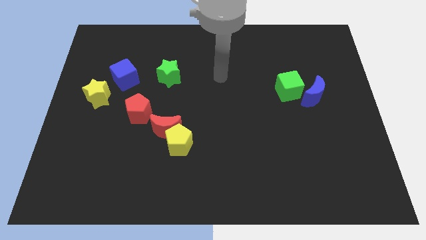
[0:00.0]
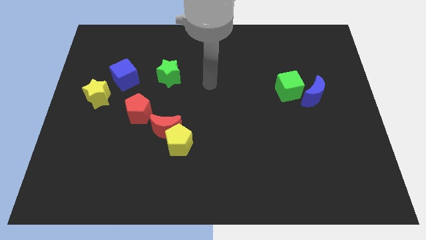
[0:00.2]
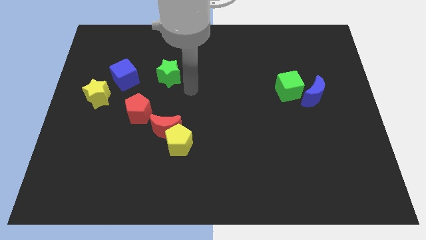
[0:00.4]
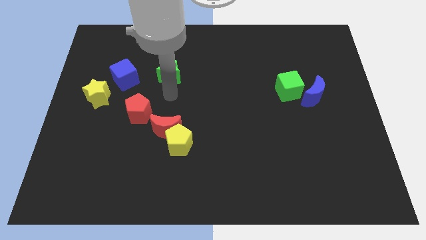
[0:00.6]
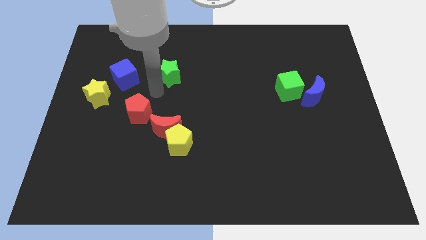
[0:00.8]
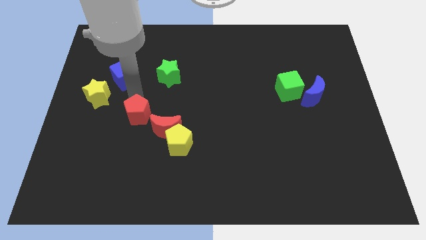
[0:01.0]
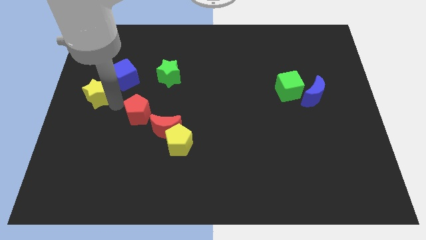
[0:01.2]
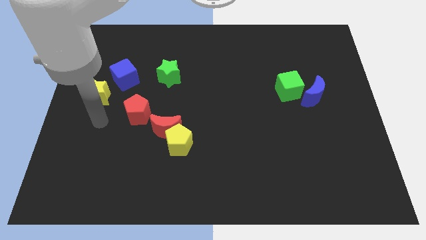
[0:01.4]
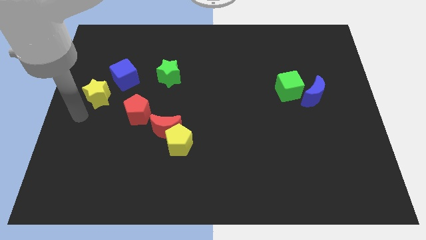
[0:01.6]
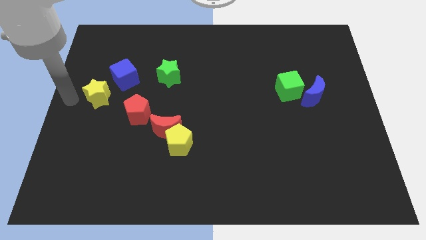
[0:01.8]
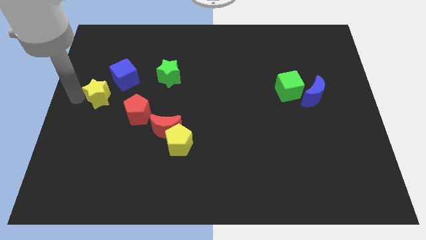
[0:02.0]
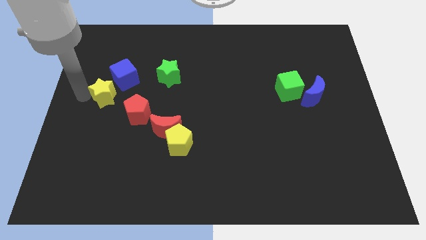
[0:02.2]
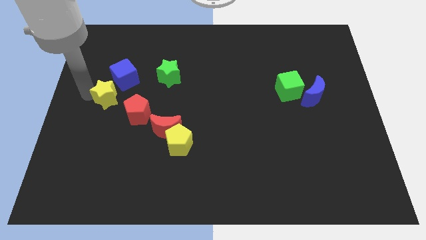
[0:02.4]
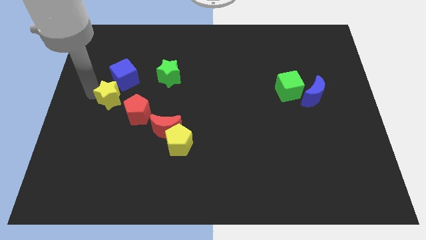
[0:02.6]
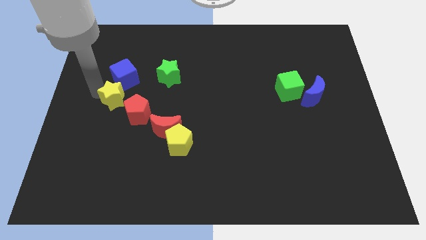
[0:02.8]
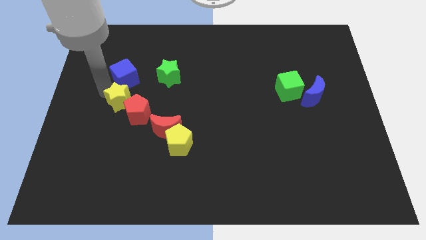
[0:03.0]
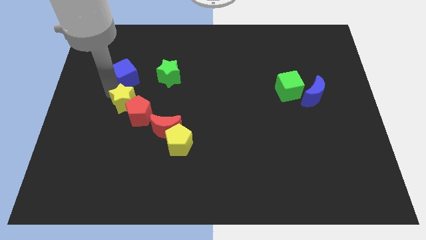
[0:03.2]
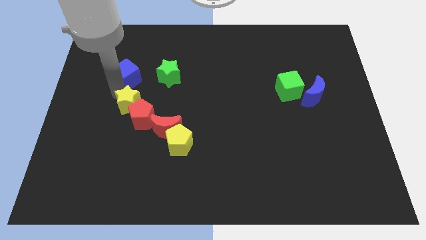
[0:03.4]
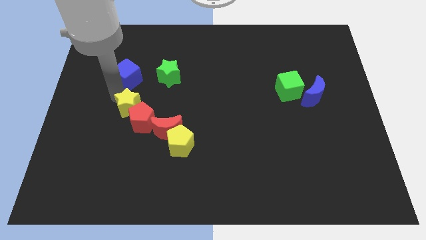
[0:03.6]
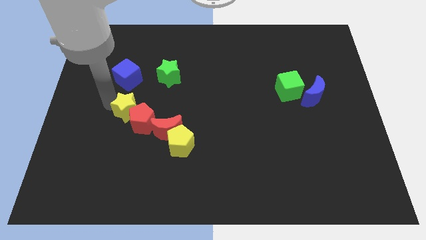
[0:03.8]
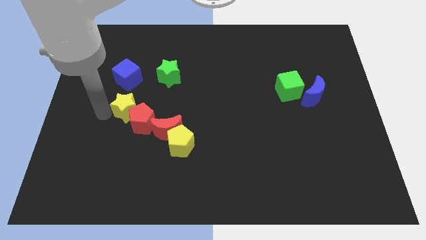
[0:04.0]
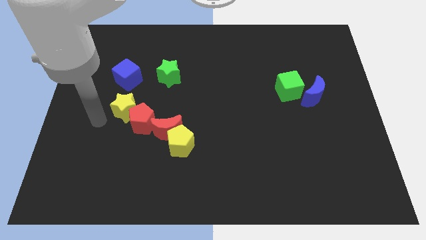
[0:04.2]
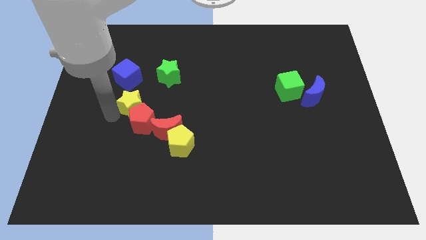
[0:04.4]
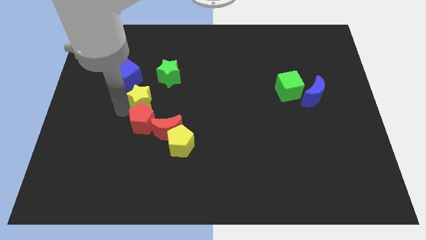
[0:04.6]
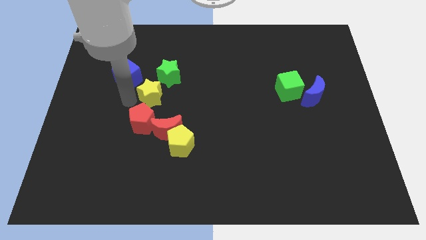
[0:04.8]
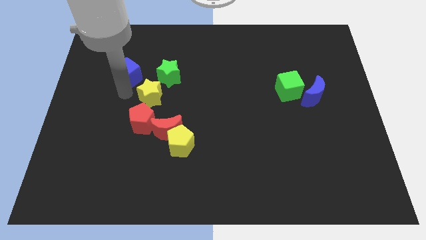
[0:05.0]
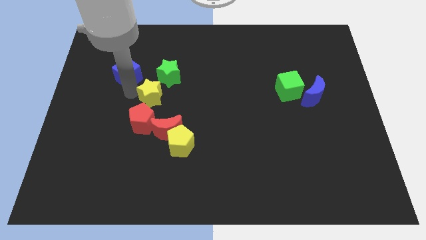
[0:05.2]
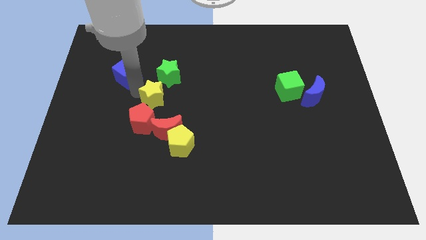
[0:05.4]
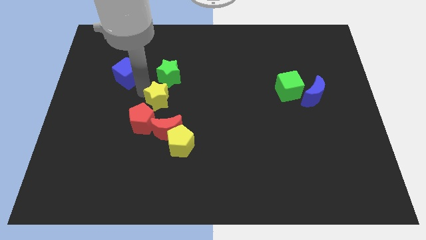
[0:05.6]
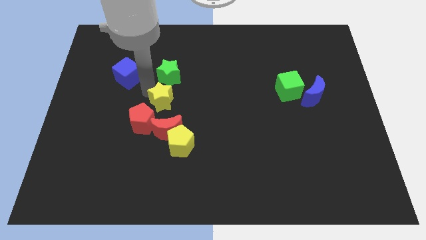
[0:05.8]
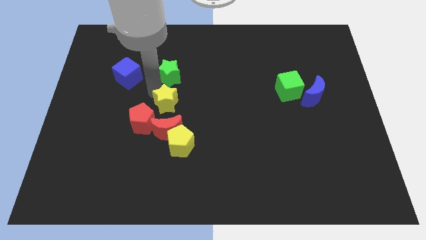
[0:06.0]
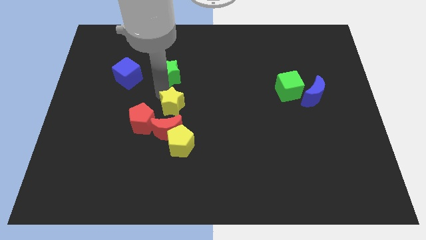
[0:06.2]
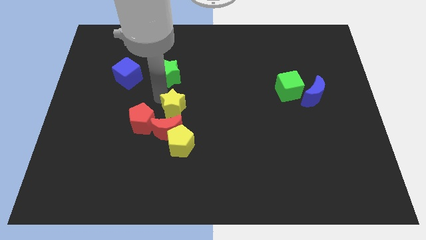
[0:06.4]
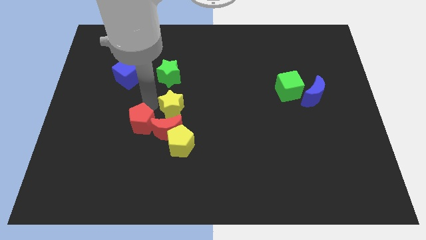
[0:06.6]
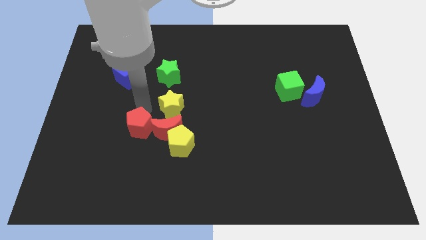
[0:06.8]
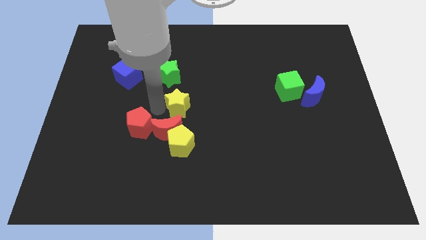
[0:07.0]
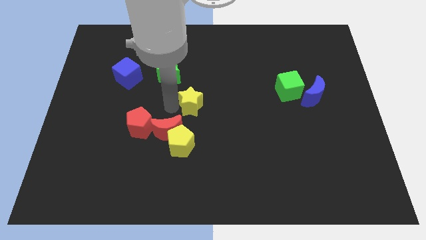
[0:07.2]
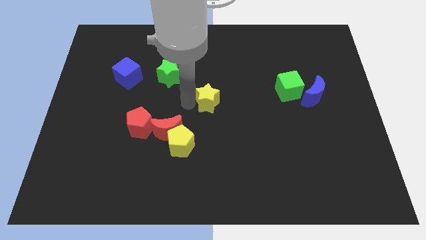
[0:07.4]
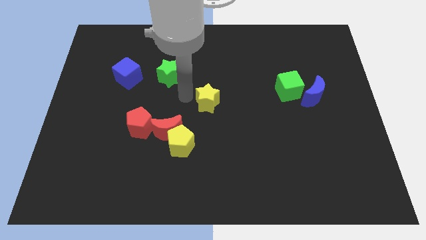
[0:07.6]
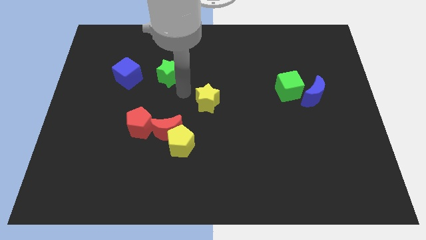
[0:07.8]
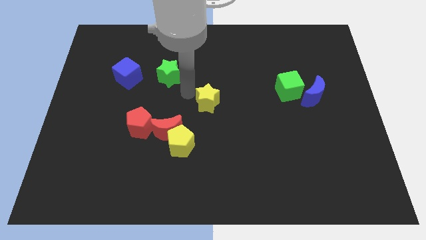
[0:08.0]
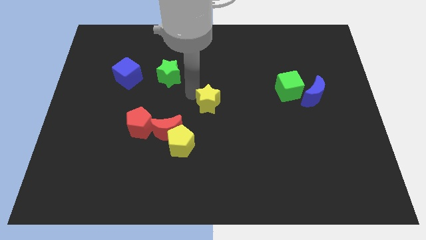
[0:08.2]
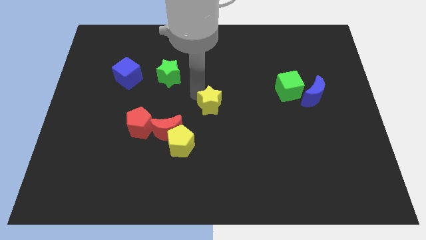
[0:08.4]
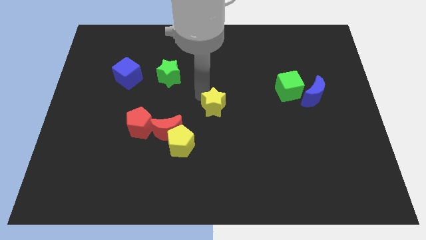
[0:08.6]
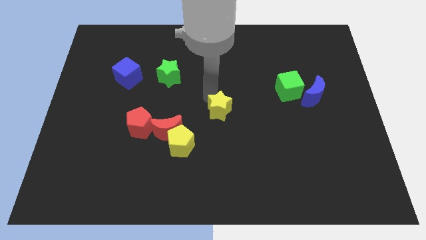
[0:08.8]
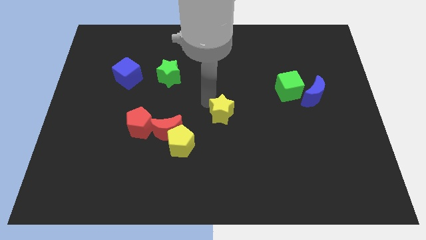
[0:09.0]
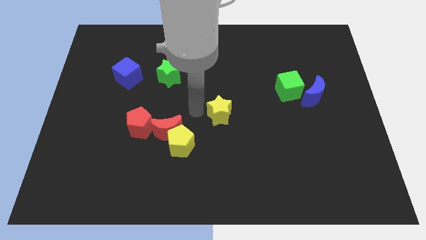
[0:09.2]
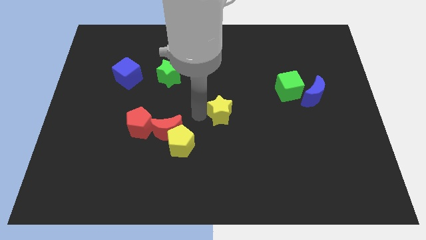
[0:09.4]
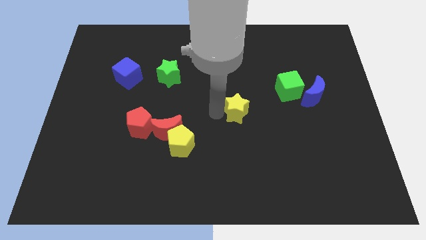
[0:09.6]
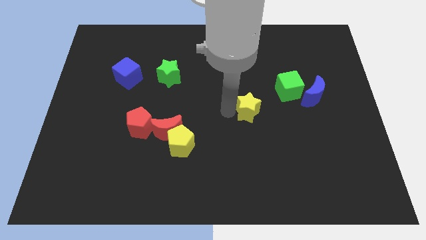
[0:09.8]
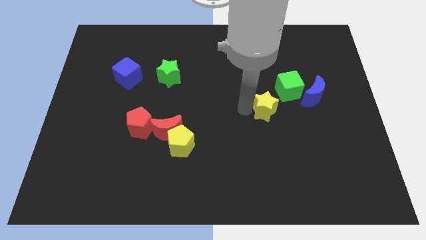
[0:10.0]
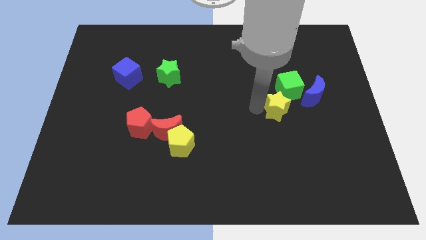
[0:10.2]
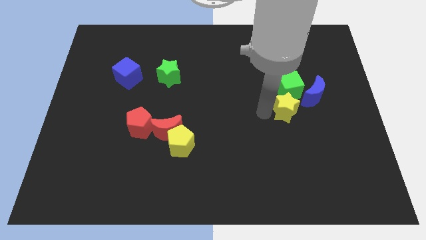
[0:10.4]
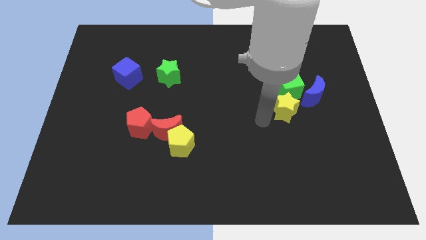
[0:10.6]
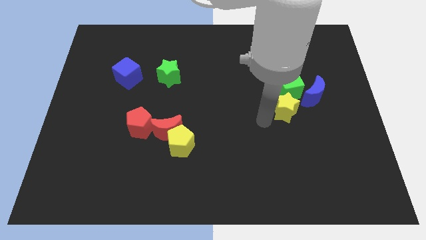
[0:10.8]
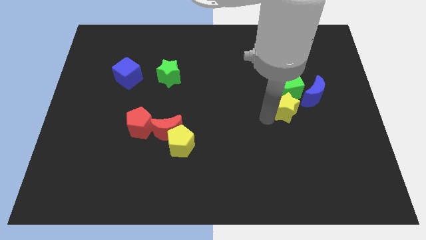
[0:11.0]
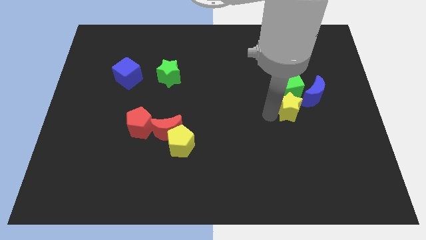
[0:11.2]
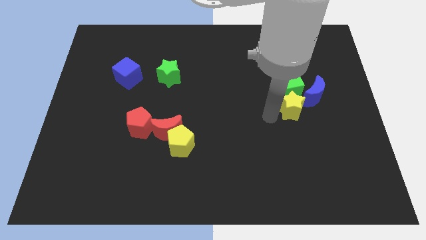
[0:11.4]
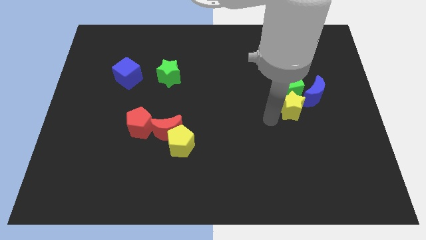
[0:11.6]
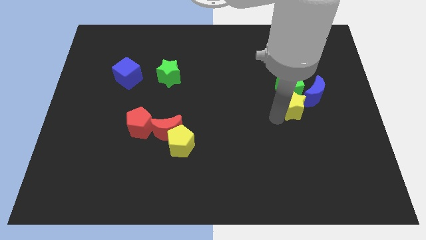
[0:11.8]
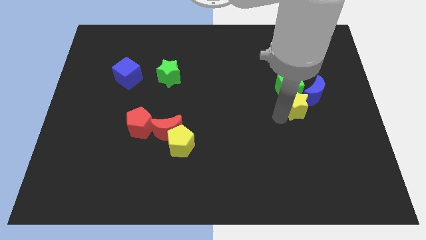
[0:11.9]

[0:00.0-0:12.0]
move the yellow star to the blue moon

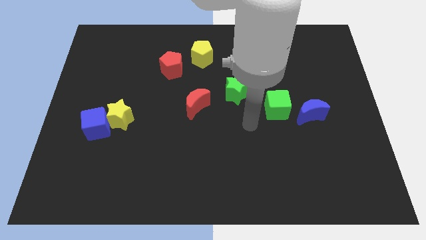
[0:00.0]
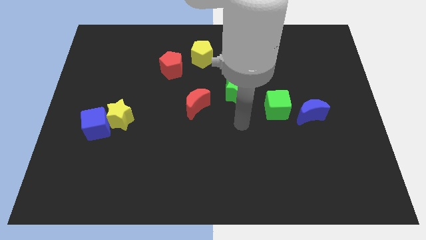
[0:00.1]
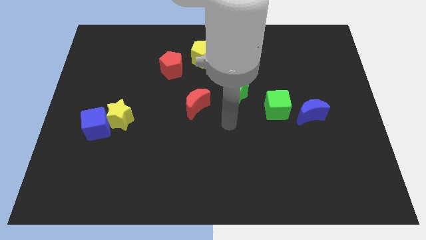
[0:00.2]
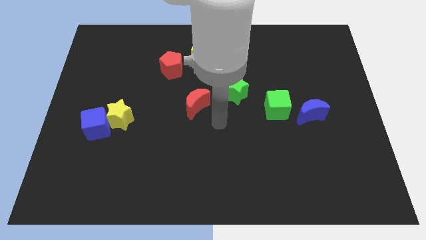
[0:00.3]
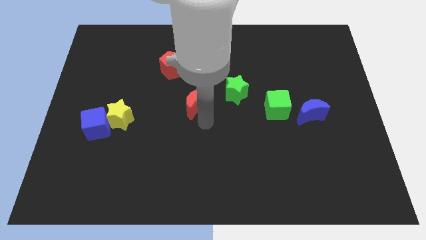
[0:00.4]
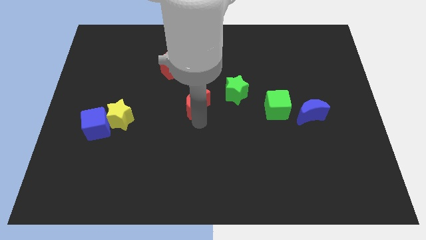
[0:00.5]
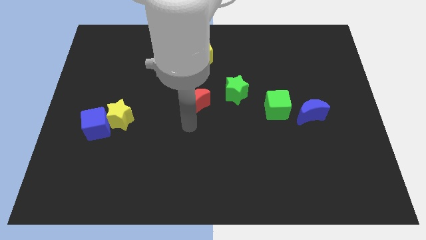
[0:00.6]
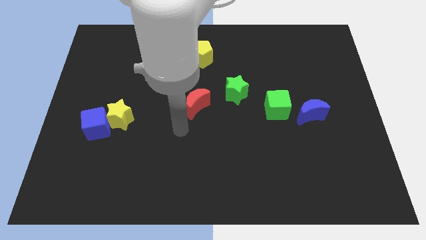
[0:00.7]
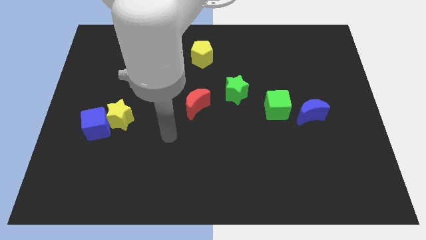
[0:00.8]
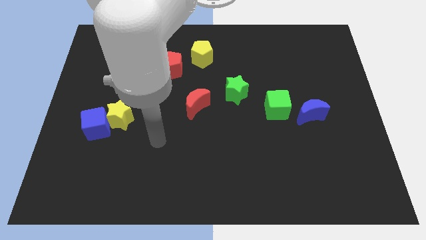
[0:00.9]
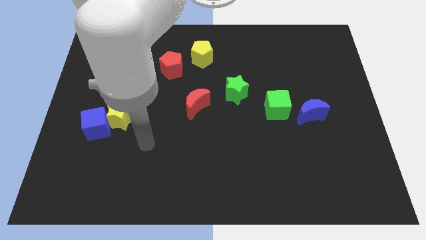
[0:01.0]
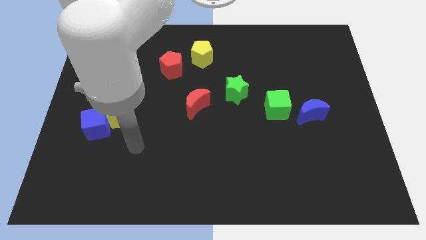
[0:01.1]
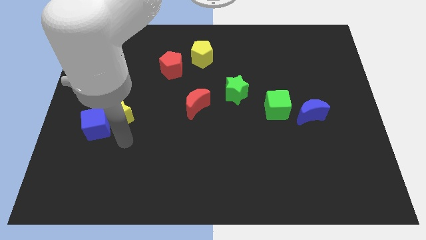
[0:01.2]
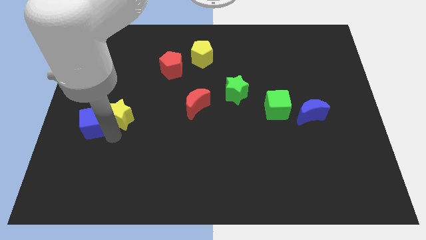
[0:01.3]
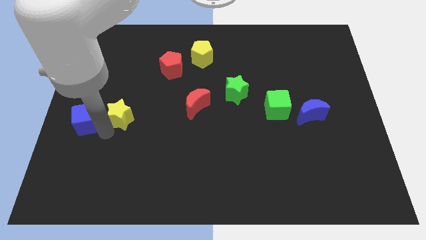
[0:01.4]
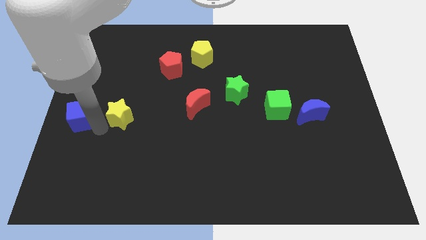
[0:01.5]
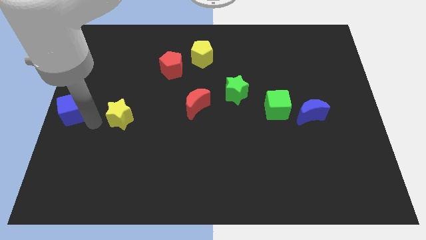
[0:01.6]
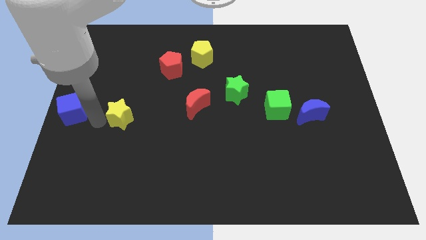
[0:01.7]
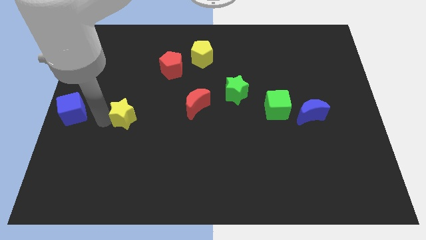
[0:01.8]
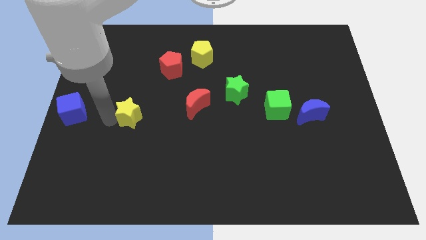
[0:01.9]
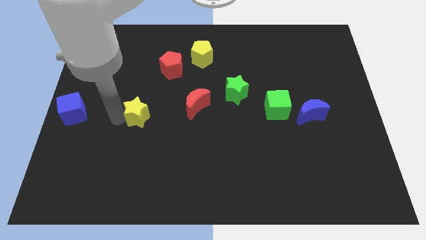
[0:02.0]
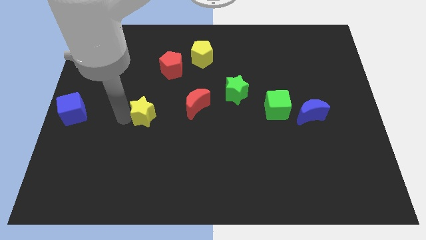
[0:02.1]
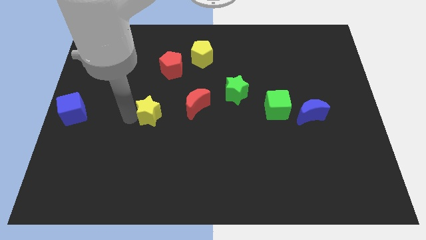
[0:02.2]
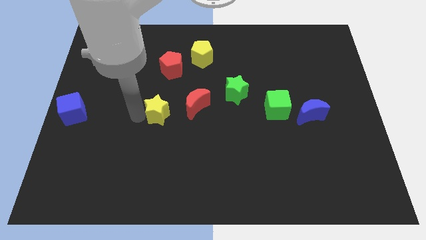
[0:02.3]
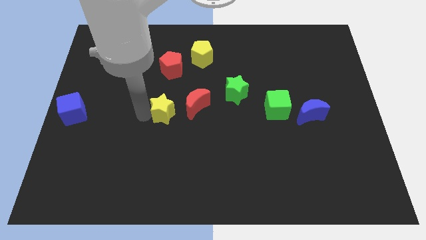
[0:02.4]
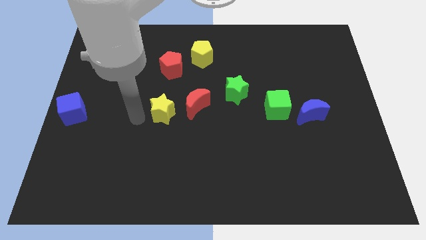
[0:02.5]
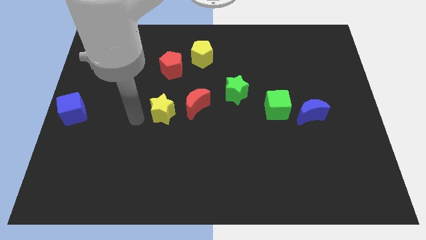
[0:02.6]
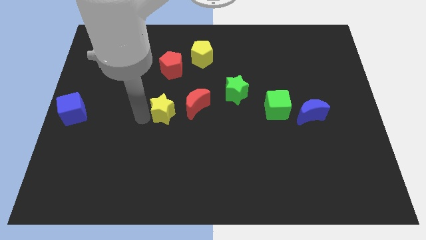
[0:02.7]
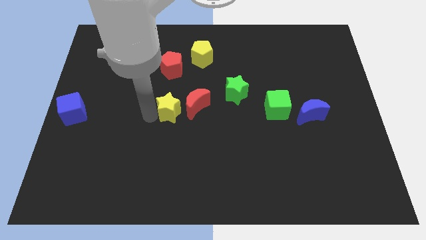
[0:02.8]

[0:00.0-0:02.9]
put the yellow star to the red moon
